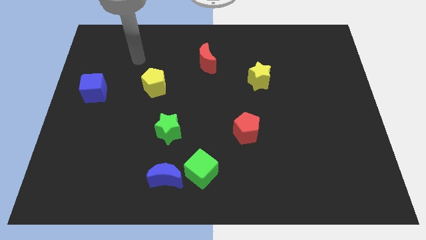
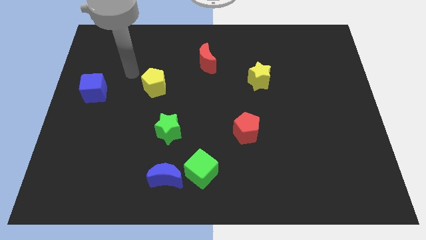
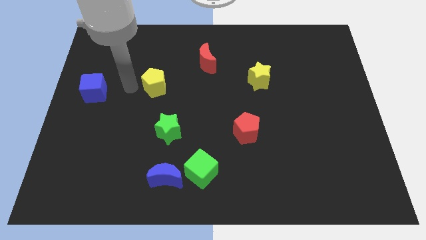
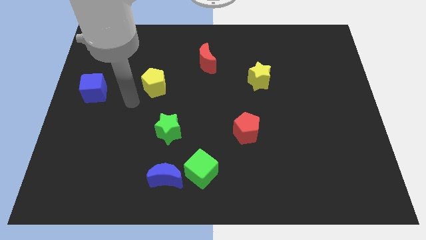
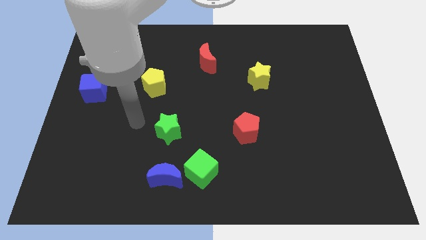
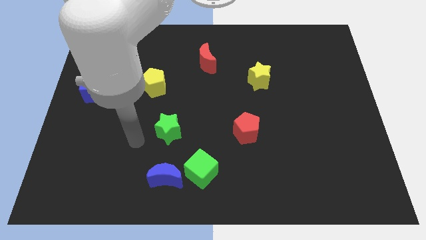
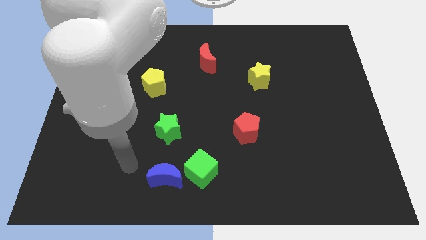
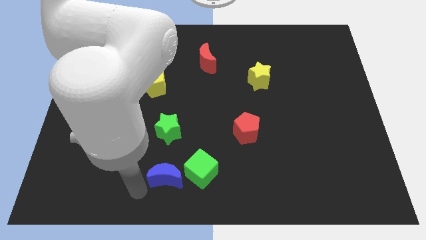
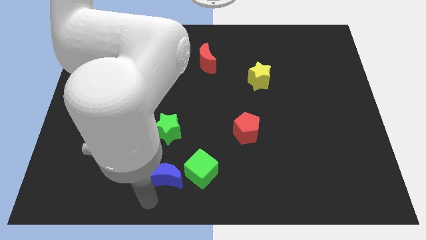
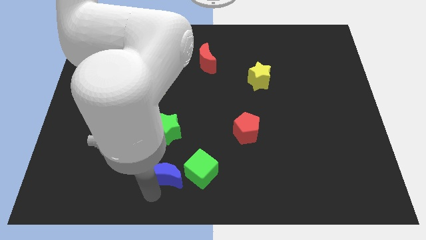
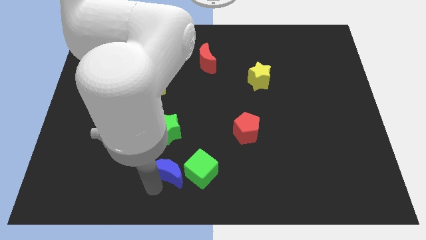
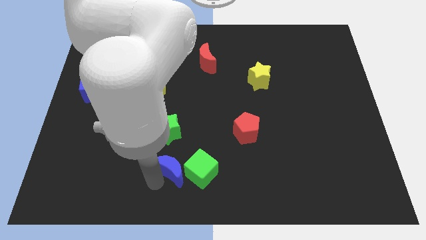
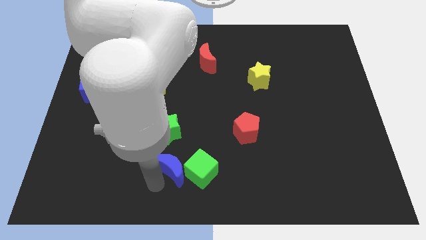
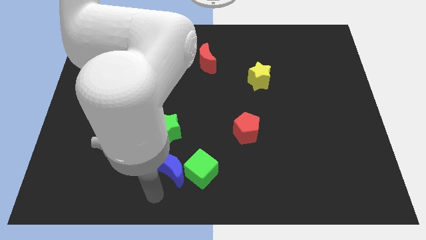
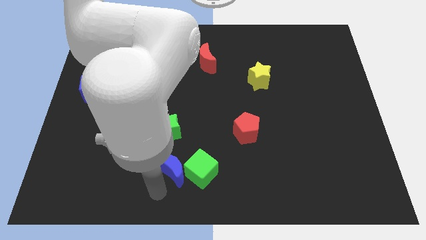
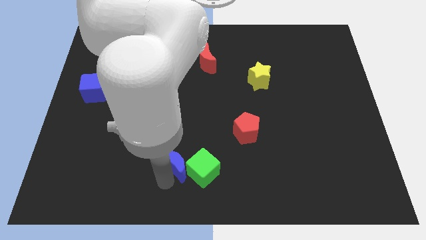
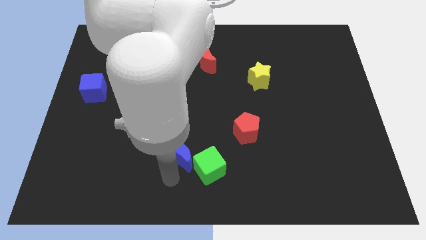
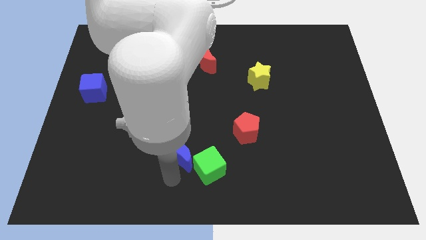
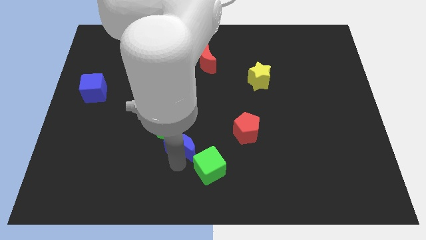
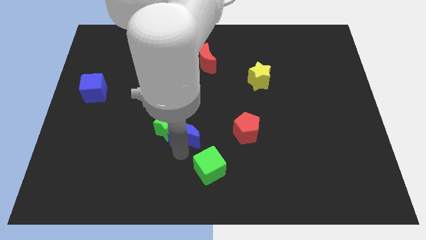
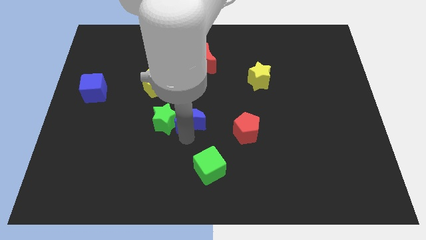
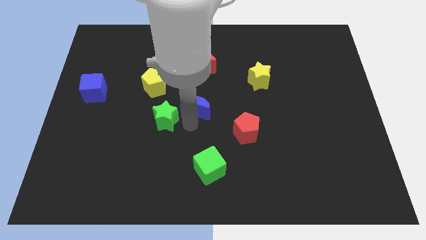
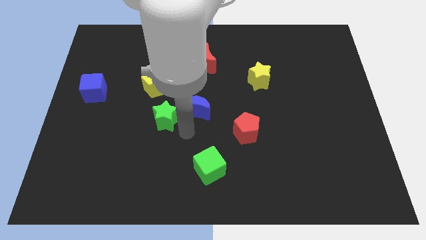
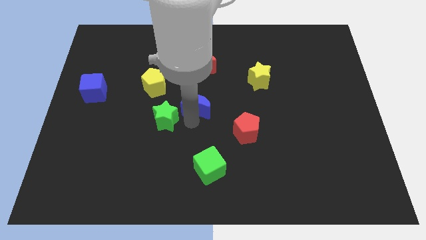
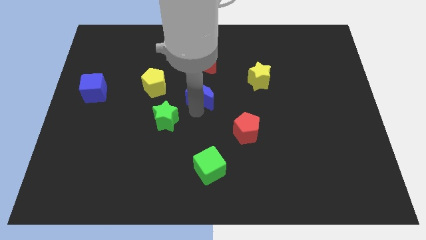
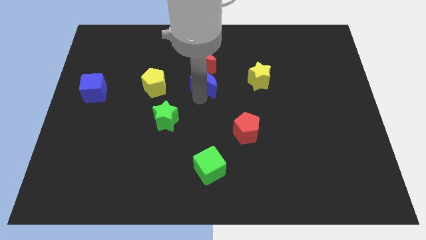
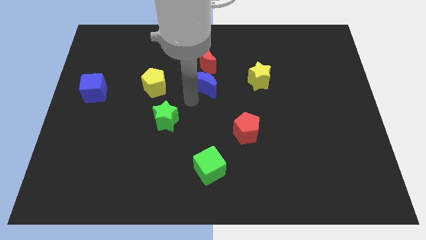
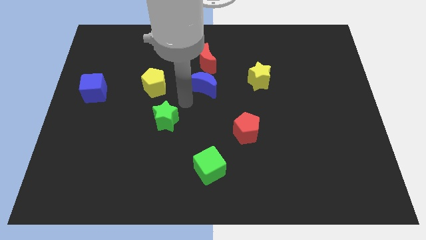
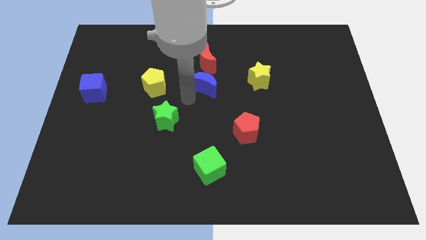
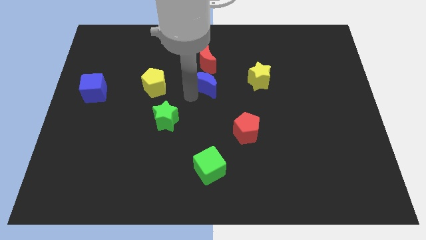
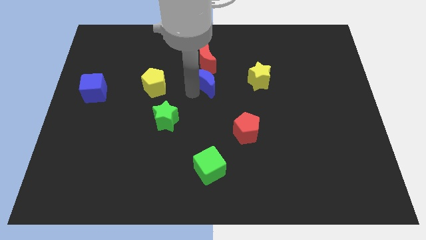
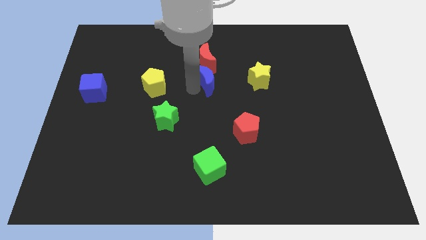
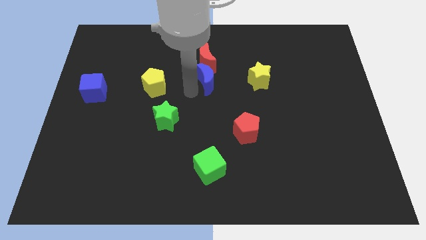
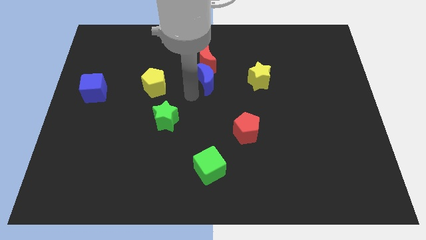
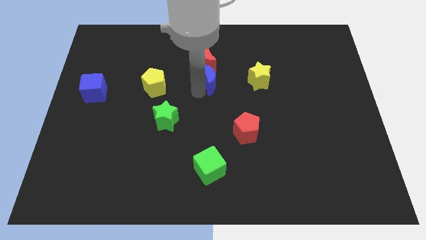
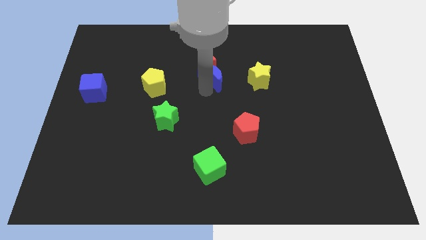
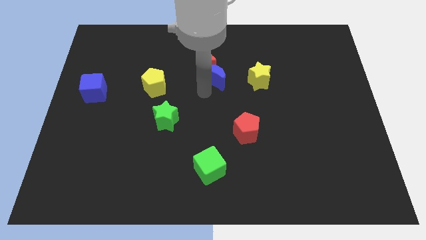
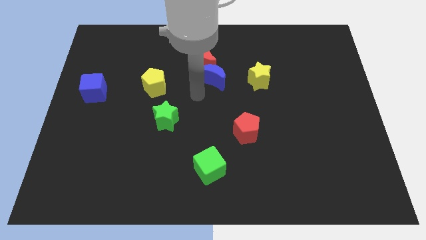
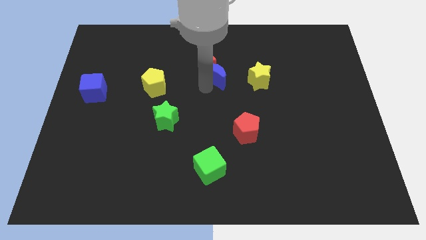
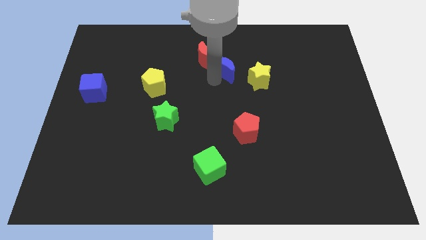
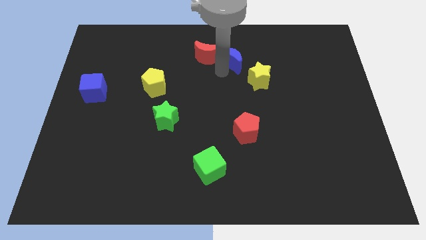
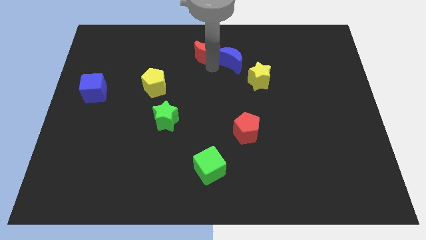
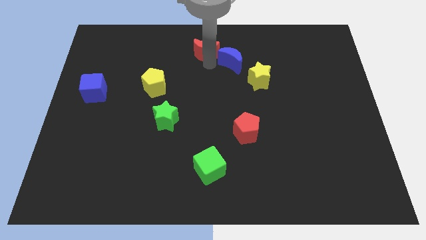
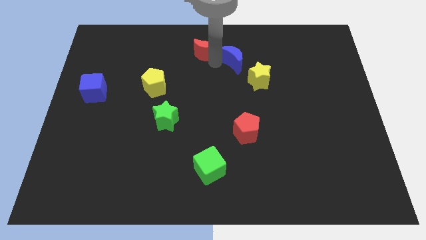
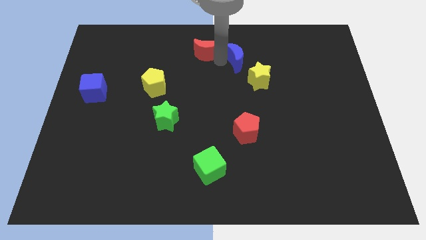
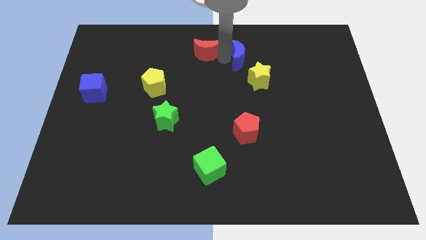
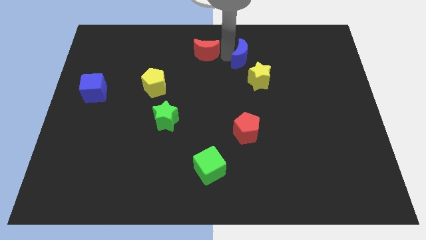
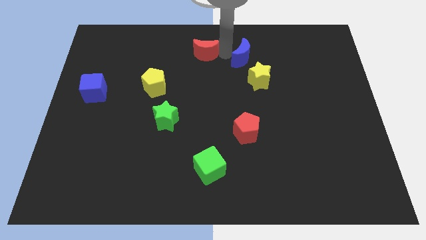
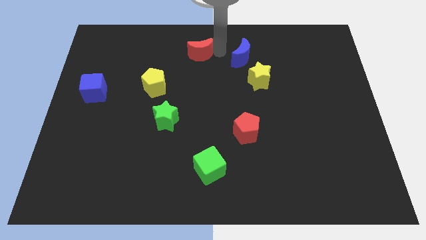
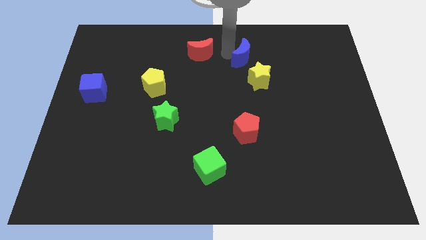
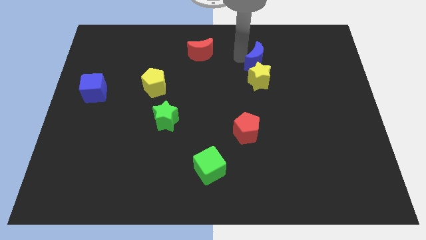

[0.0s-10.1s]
push the blue moon to the top right side of the yellow star

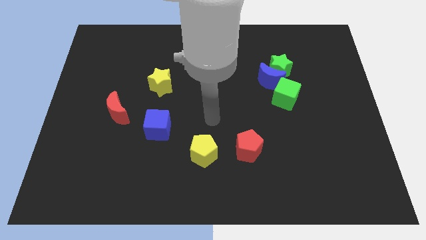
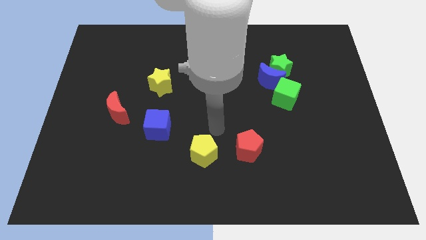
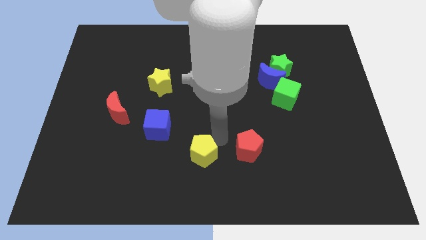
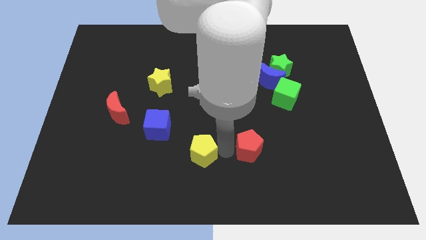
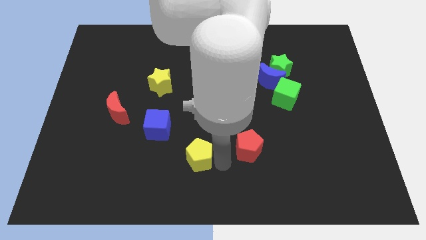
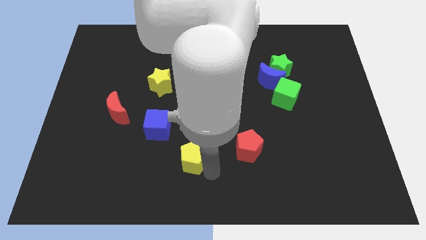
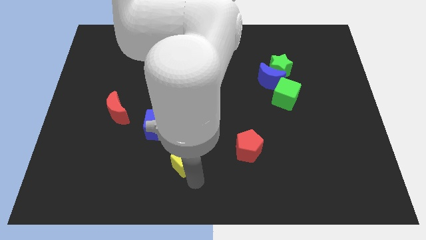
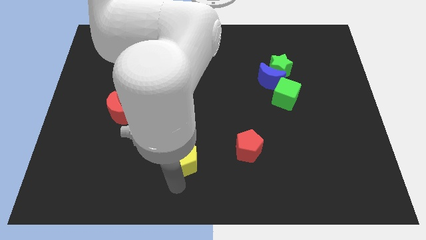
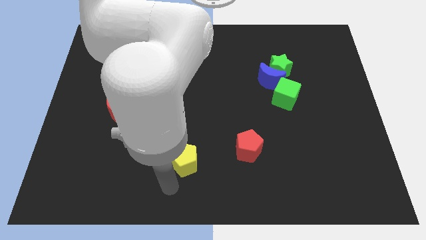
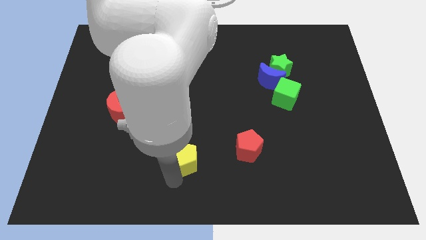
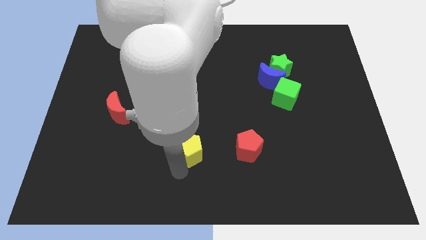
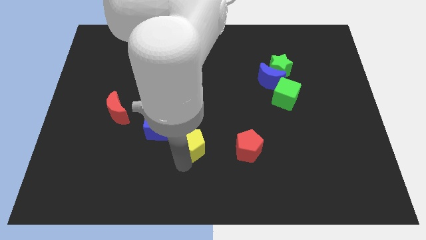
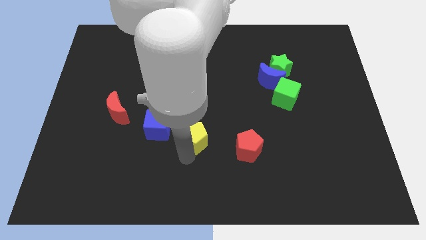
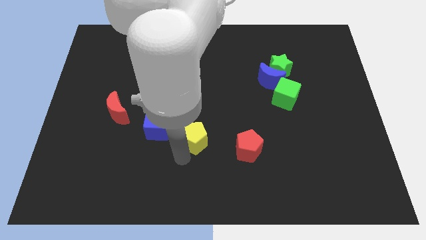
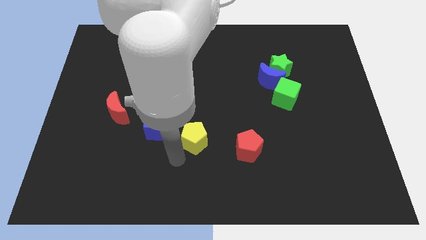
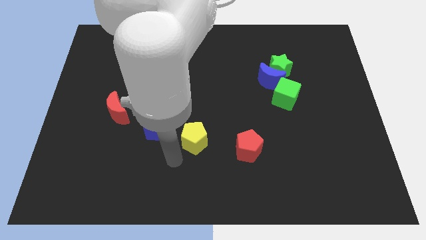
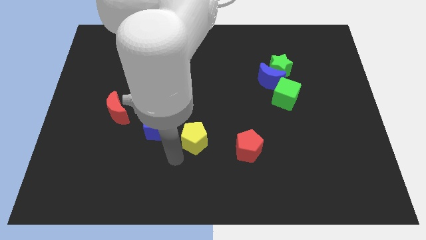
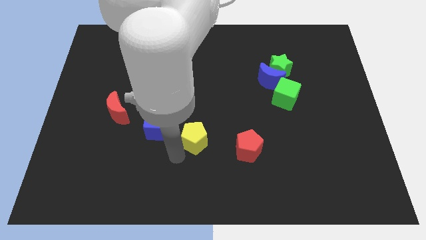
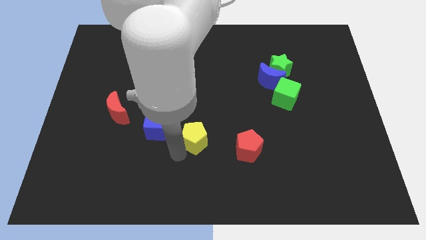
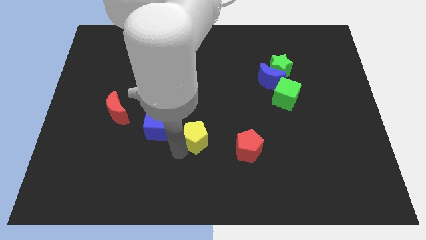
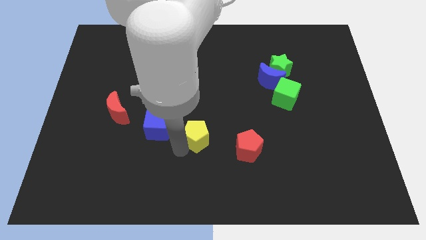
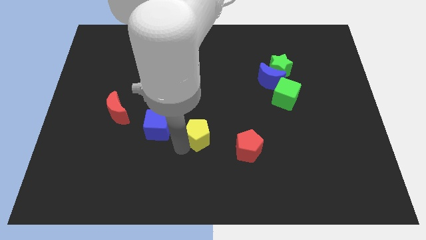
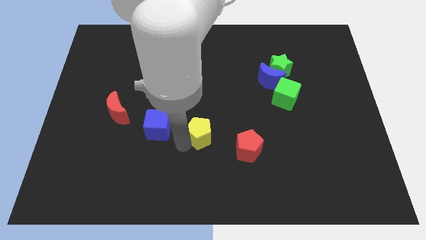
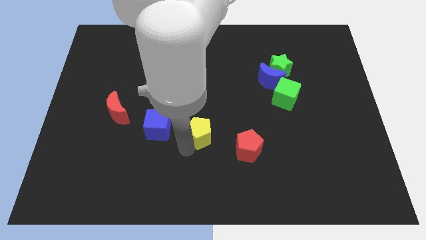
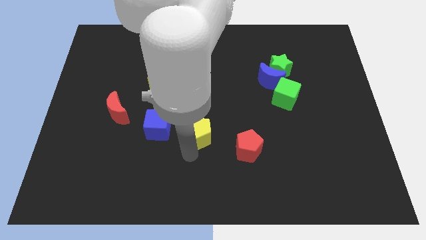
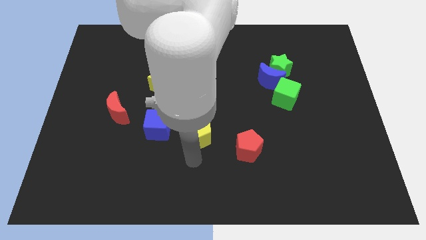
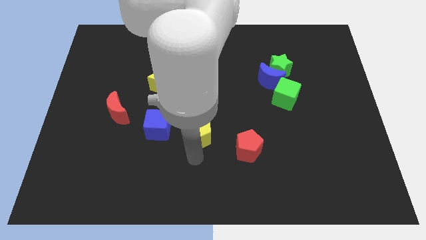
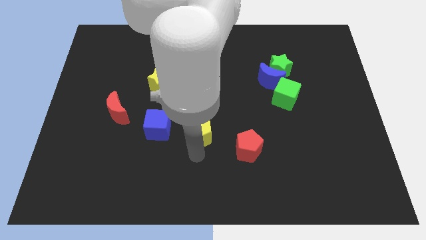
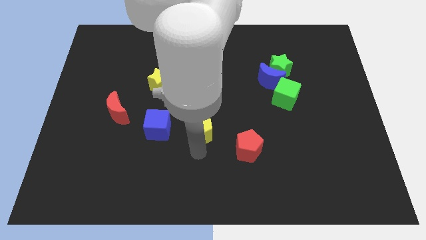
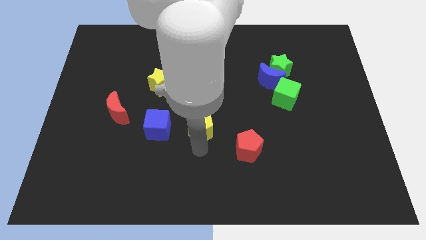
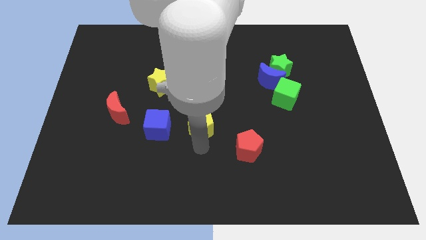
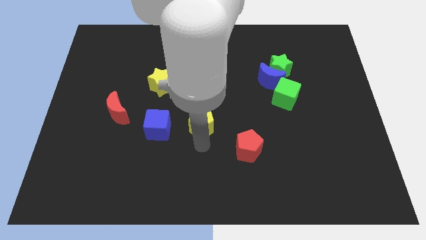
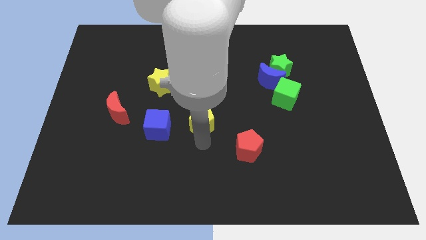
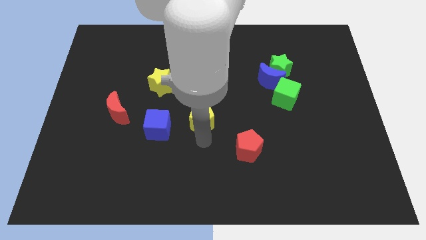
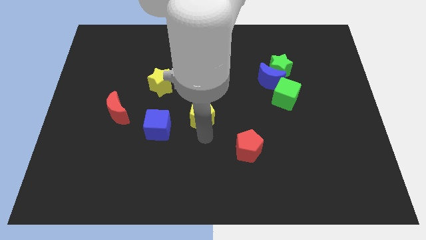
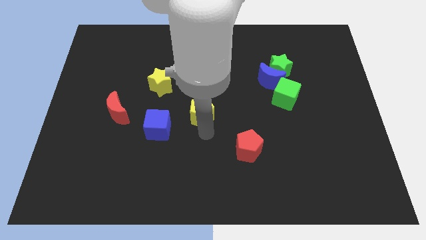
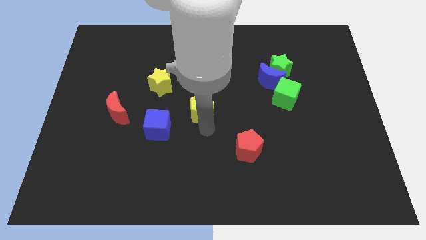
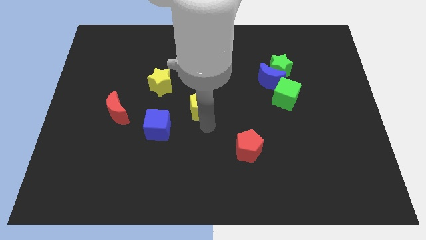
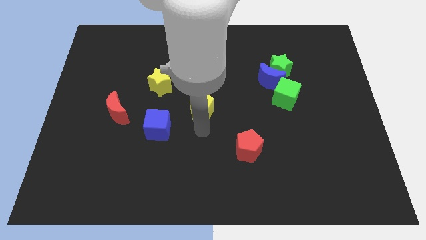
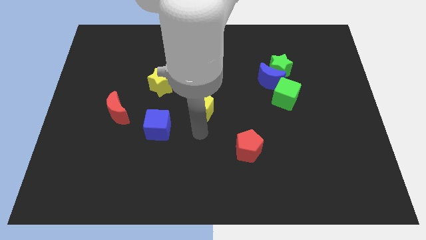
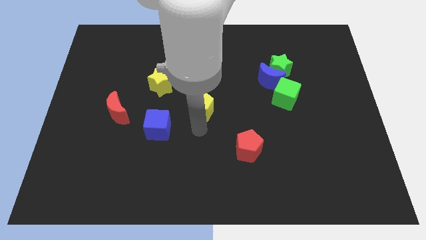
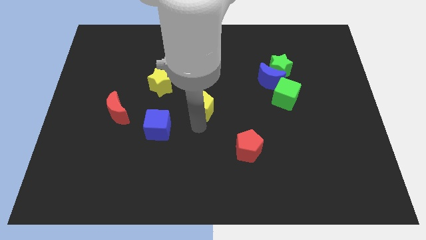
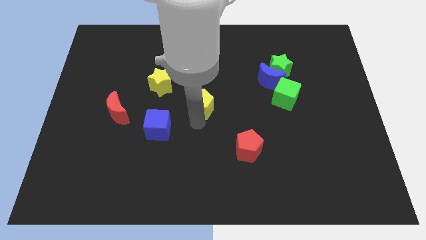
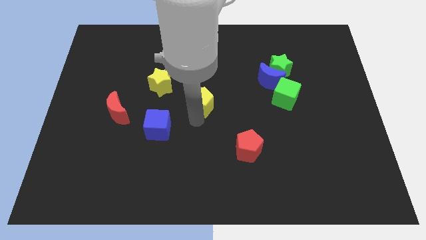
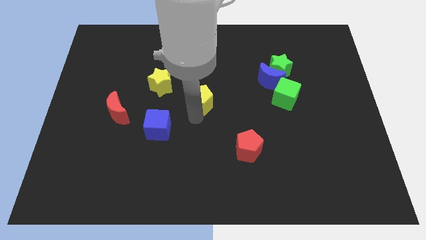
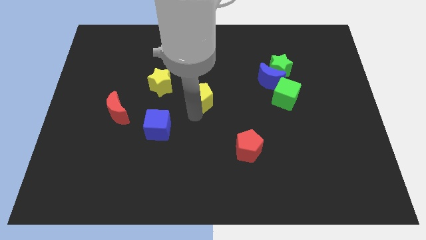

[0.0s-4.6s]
slide the yellow pentagon to the right side of the yellow star
